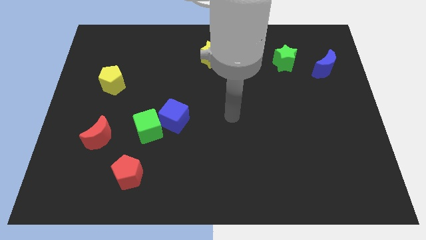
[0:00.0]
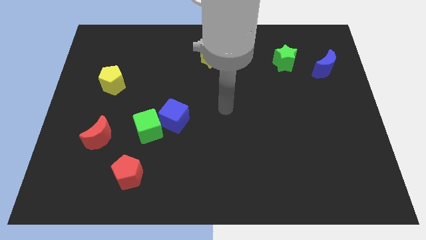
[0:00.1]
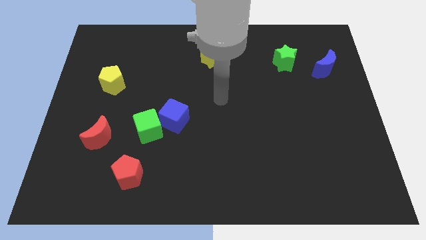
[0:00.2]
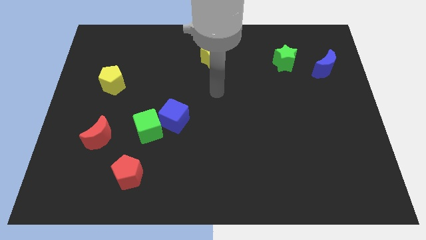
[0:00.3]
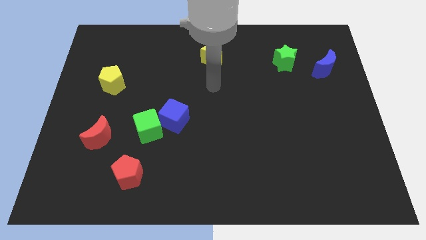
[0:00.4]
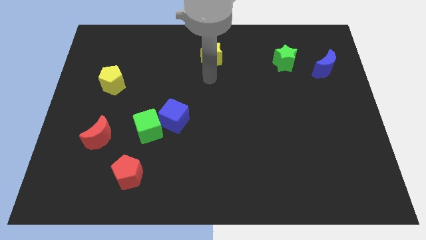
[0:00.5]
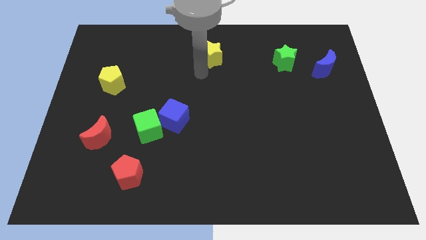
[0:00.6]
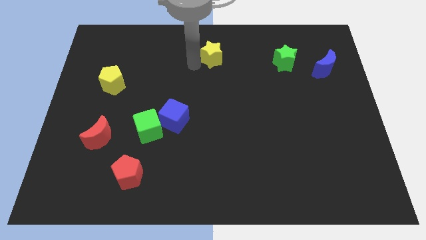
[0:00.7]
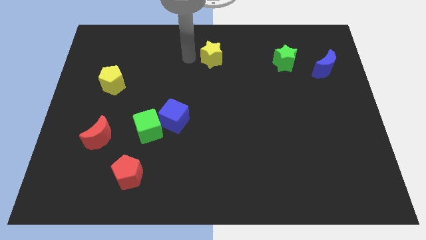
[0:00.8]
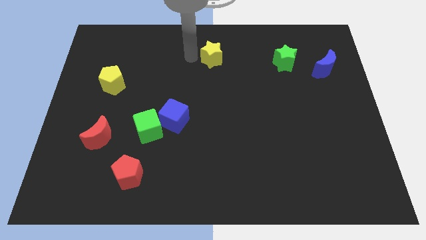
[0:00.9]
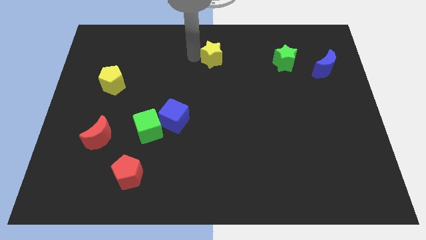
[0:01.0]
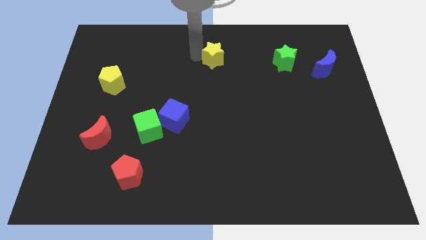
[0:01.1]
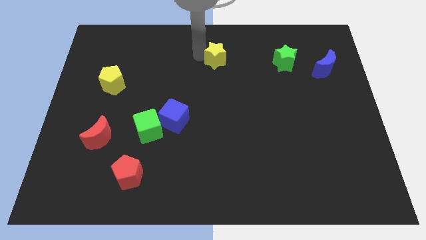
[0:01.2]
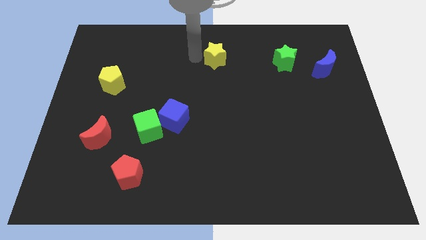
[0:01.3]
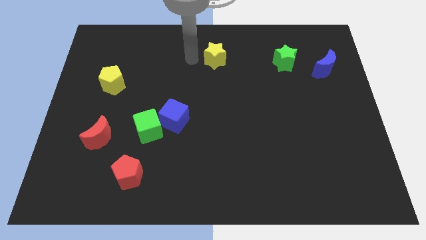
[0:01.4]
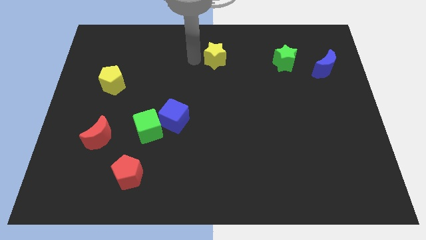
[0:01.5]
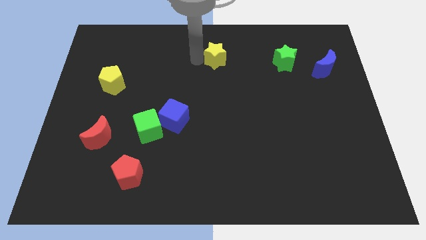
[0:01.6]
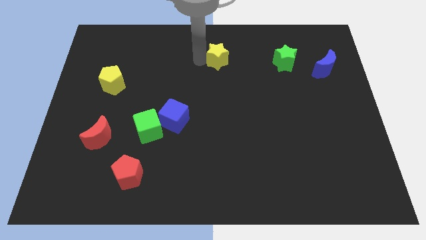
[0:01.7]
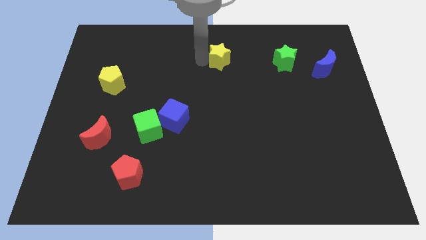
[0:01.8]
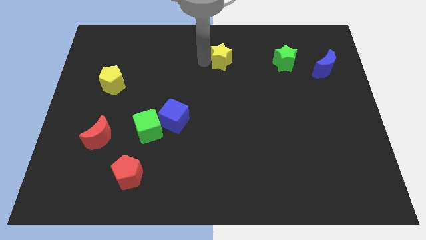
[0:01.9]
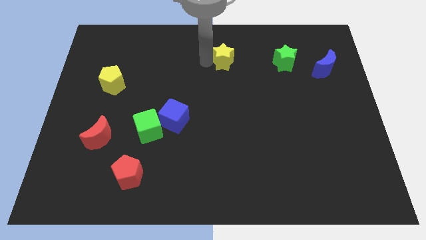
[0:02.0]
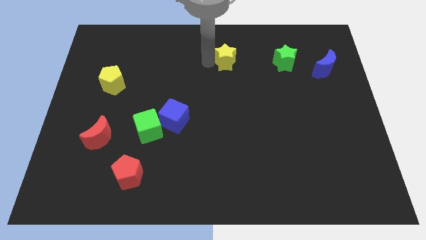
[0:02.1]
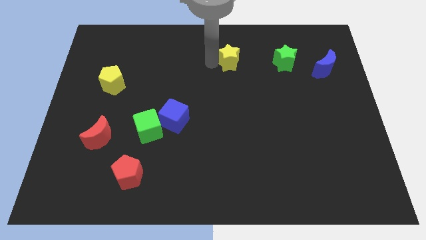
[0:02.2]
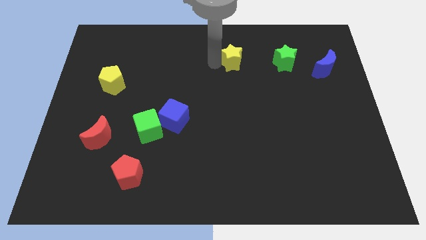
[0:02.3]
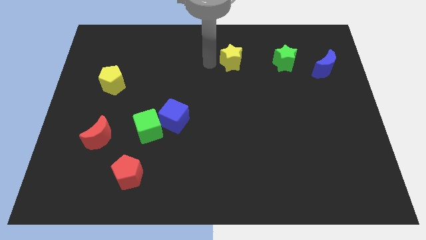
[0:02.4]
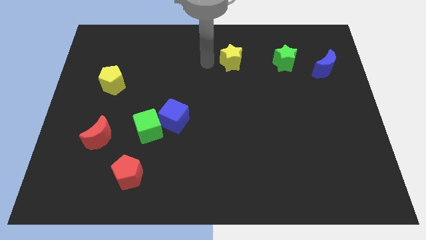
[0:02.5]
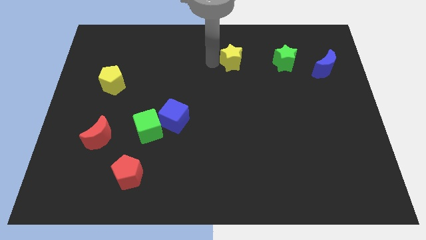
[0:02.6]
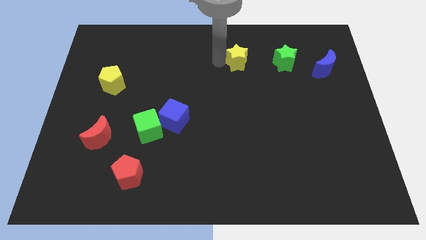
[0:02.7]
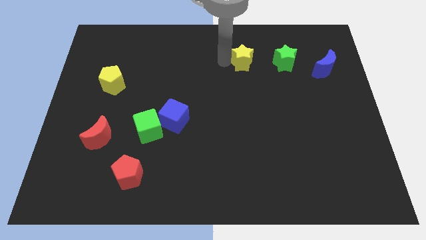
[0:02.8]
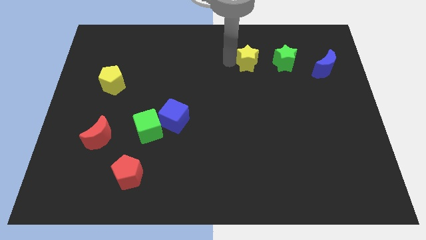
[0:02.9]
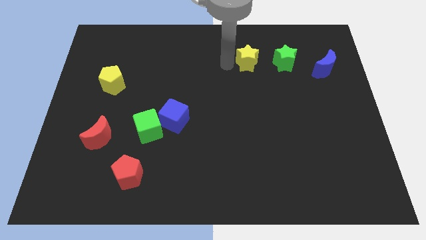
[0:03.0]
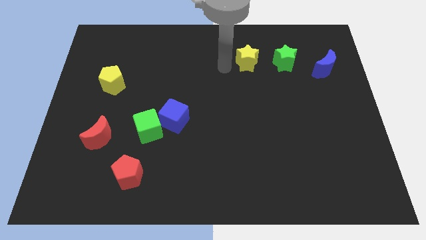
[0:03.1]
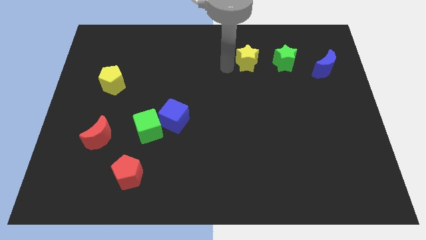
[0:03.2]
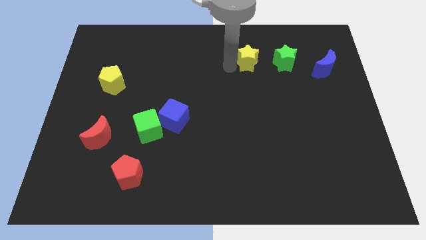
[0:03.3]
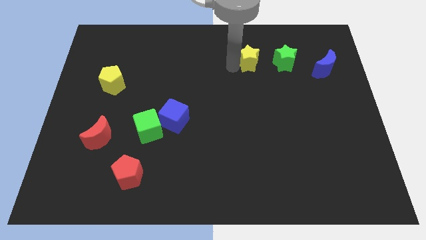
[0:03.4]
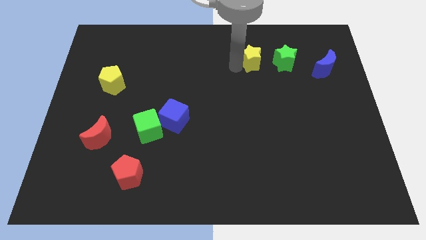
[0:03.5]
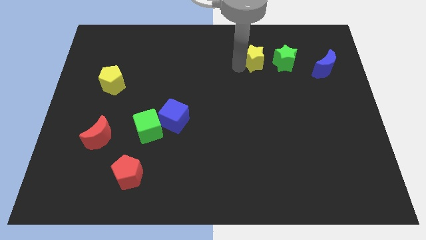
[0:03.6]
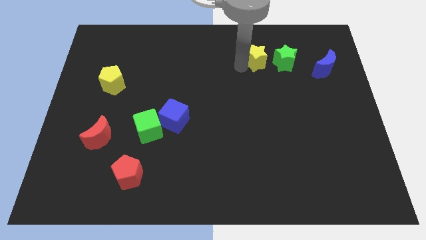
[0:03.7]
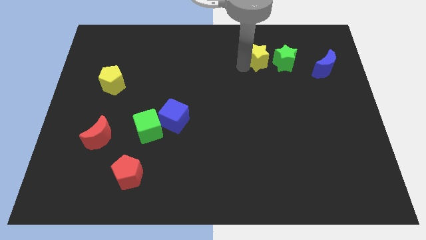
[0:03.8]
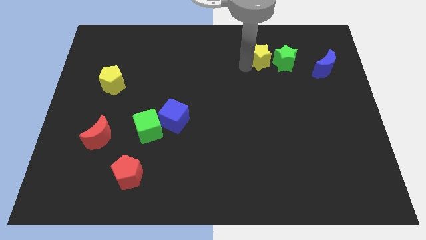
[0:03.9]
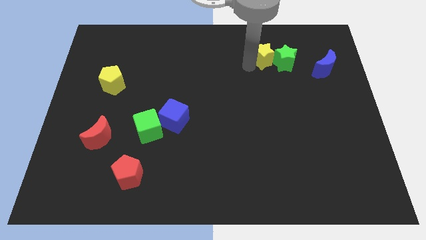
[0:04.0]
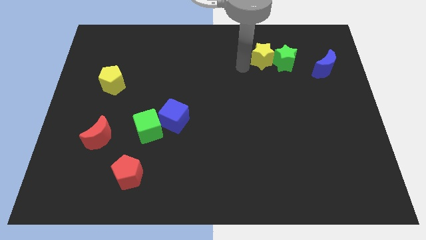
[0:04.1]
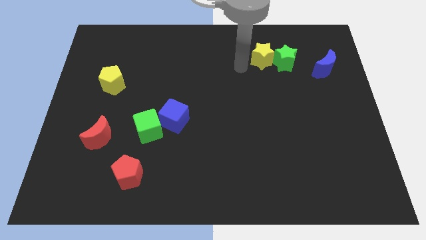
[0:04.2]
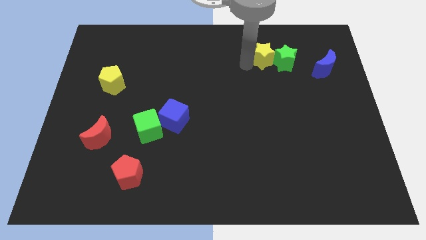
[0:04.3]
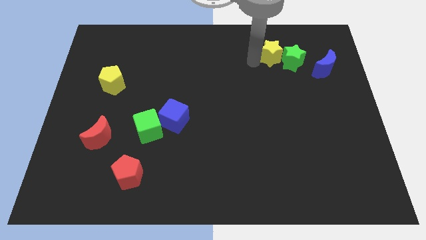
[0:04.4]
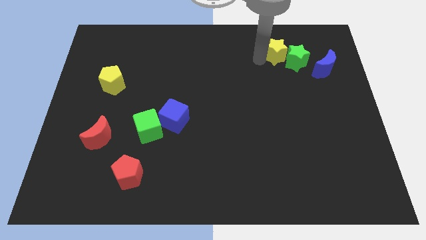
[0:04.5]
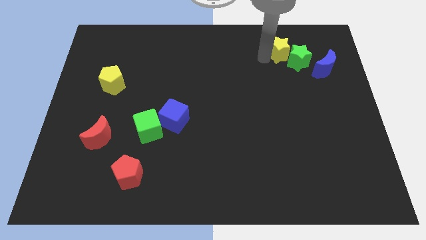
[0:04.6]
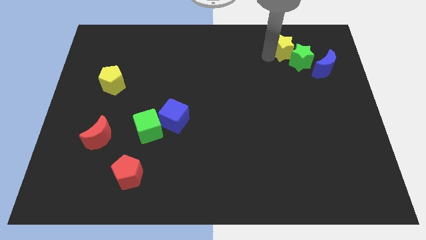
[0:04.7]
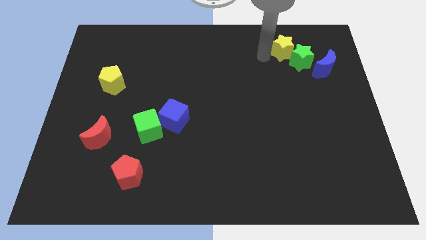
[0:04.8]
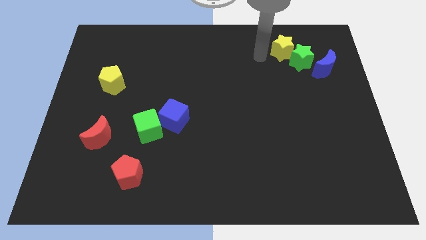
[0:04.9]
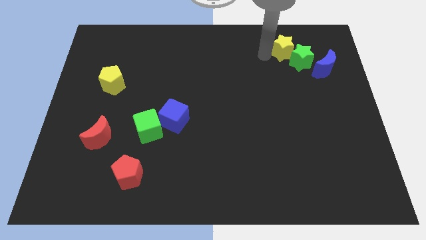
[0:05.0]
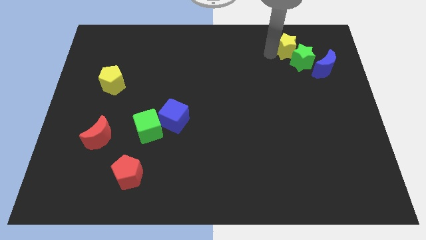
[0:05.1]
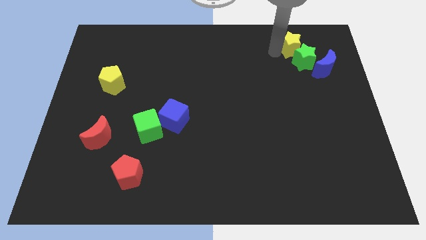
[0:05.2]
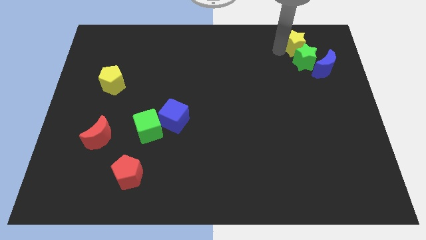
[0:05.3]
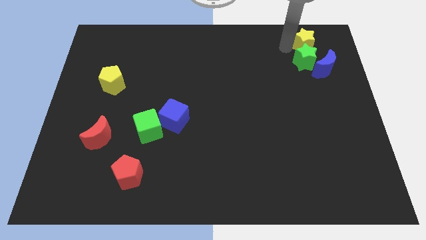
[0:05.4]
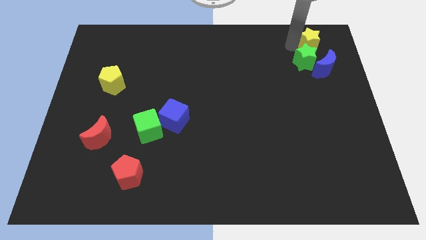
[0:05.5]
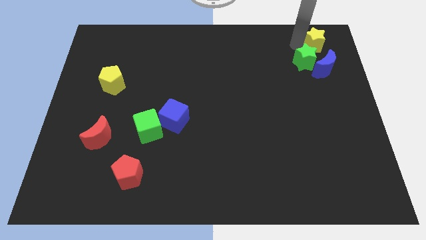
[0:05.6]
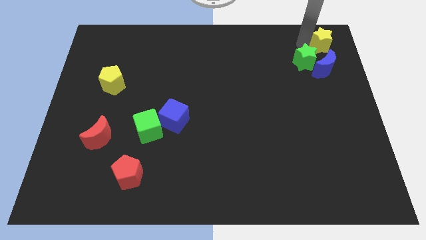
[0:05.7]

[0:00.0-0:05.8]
move the yellow star to the upper right corner

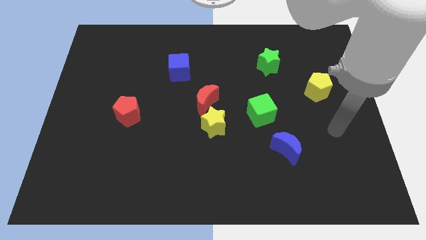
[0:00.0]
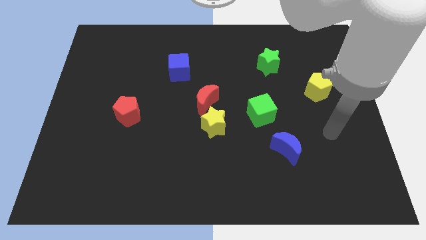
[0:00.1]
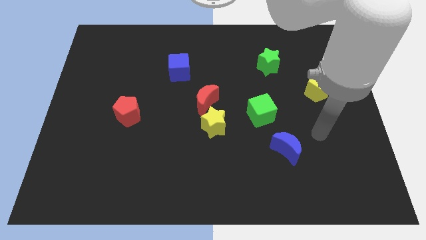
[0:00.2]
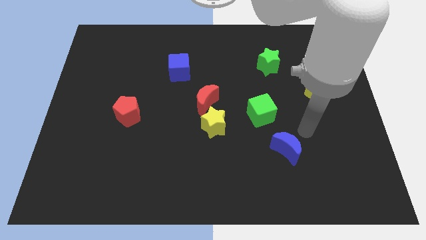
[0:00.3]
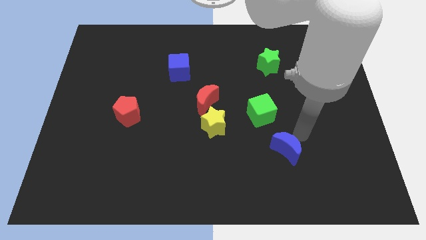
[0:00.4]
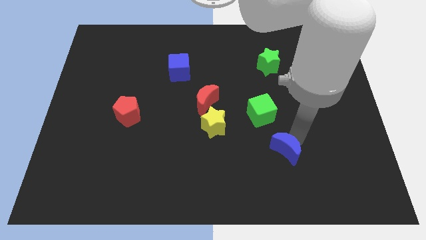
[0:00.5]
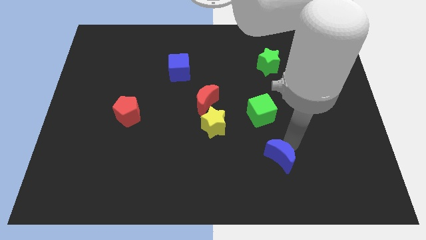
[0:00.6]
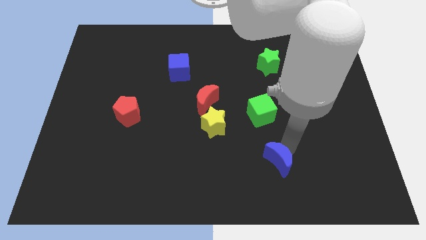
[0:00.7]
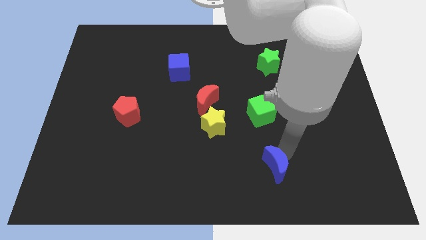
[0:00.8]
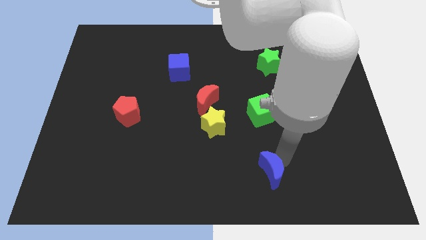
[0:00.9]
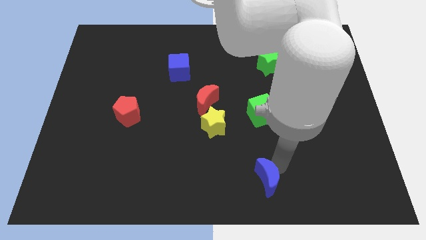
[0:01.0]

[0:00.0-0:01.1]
push the blue moon to the bottom side
